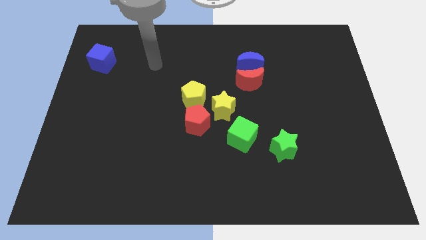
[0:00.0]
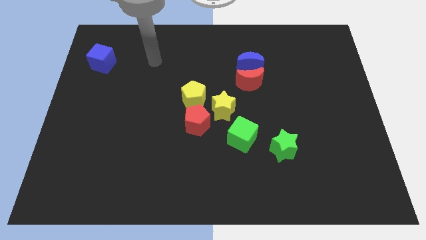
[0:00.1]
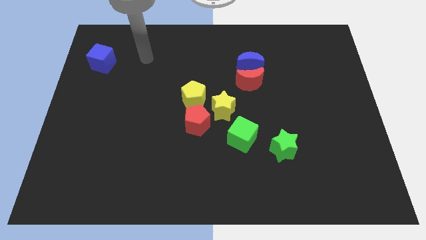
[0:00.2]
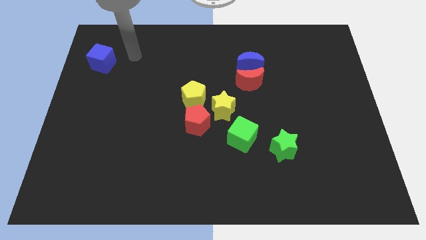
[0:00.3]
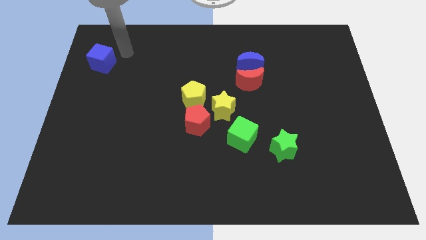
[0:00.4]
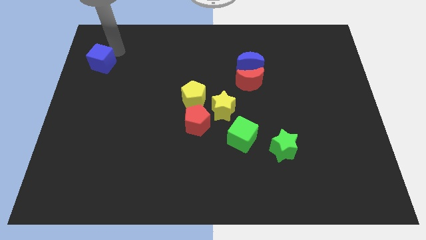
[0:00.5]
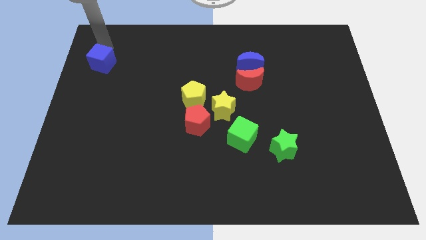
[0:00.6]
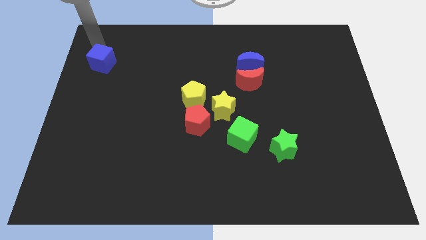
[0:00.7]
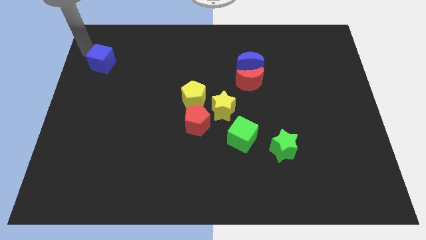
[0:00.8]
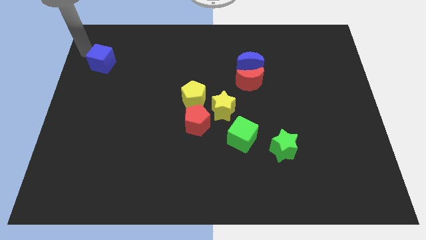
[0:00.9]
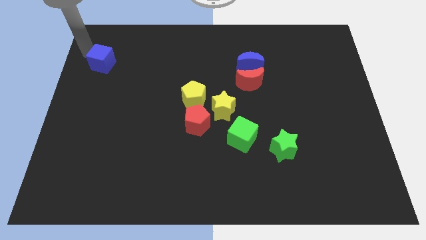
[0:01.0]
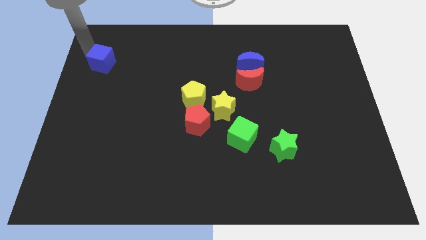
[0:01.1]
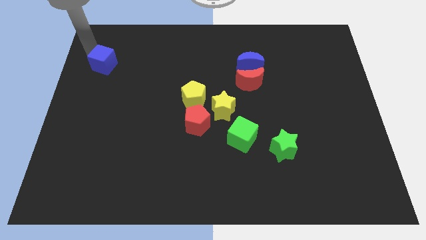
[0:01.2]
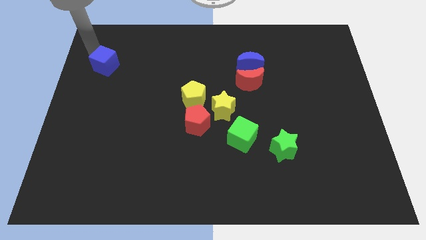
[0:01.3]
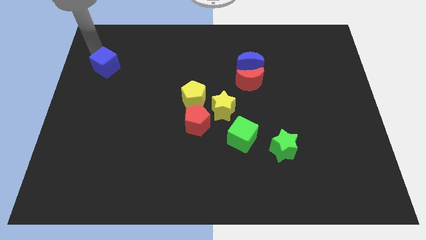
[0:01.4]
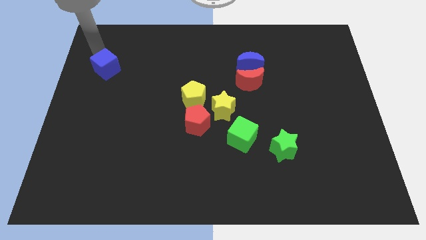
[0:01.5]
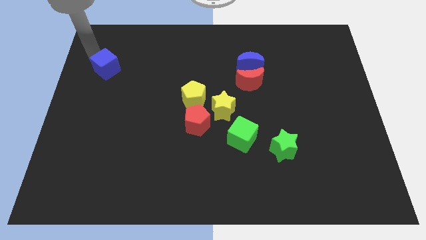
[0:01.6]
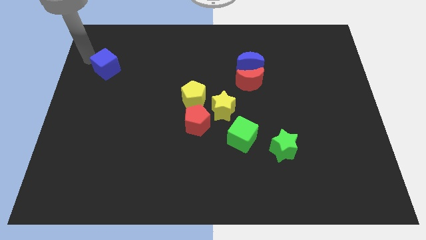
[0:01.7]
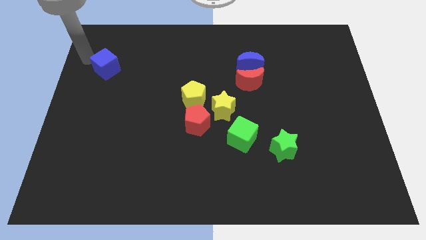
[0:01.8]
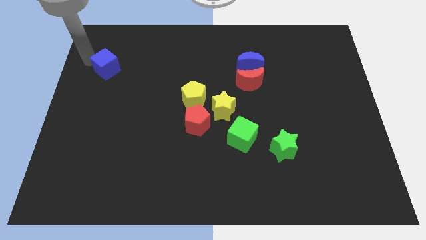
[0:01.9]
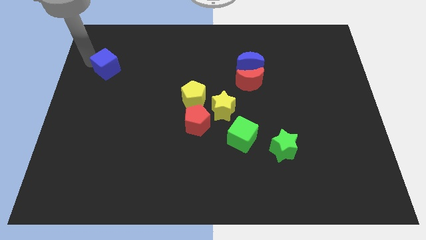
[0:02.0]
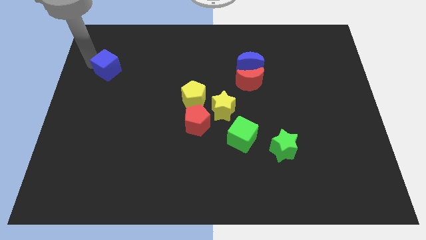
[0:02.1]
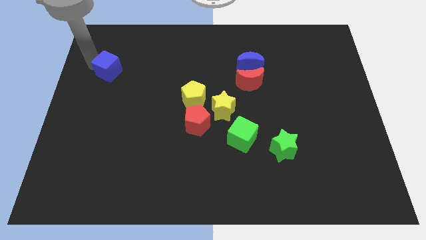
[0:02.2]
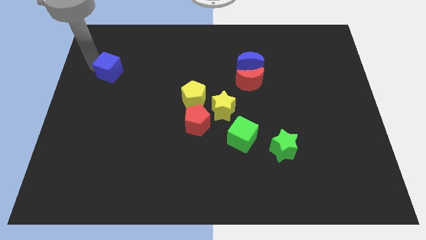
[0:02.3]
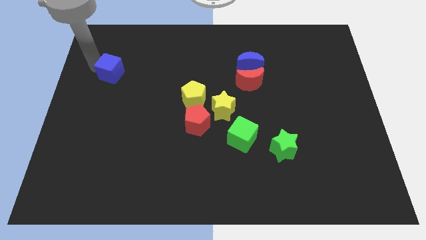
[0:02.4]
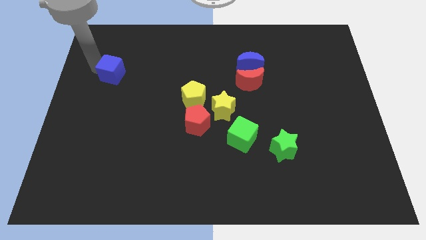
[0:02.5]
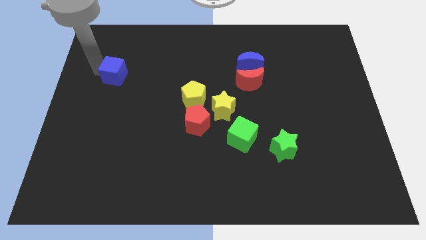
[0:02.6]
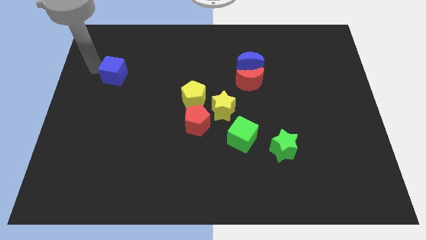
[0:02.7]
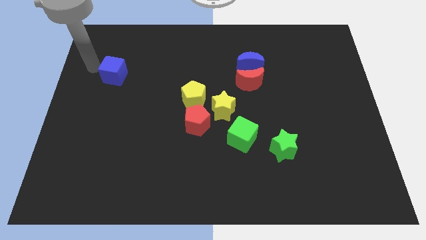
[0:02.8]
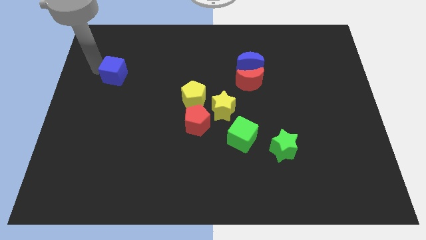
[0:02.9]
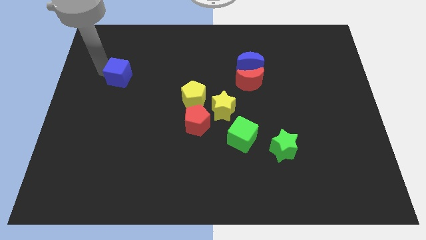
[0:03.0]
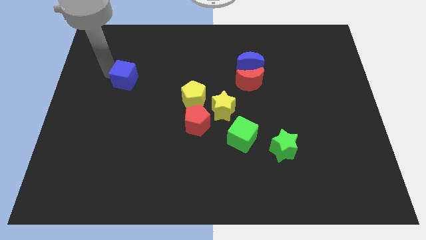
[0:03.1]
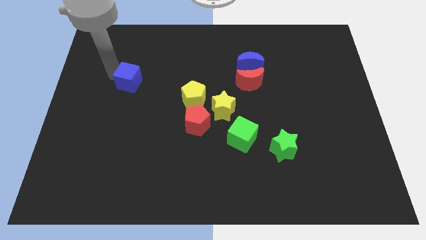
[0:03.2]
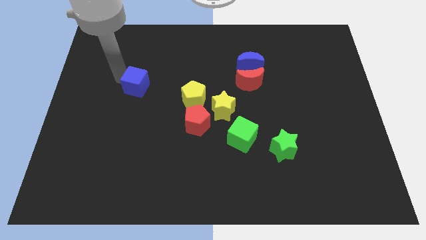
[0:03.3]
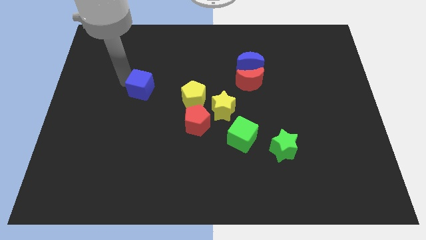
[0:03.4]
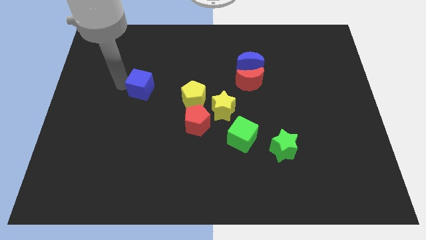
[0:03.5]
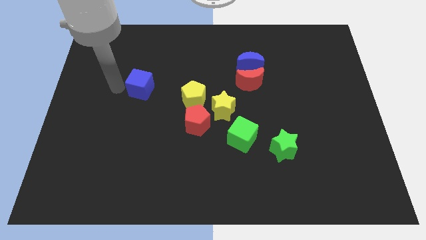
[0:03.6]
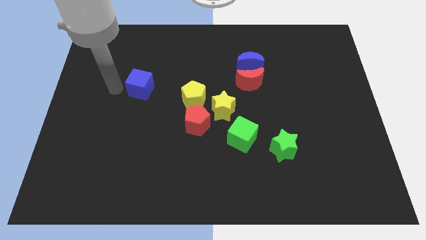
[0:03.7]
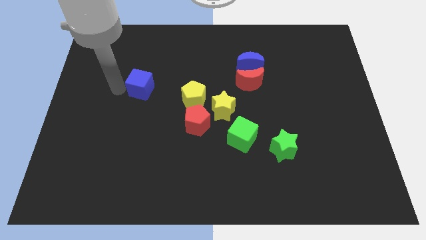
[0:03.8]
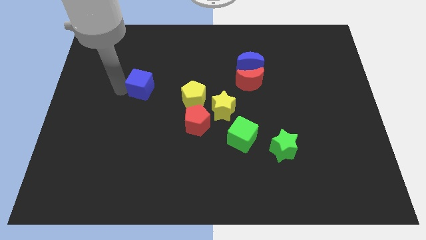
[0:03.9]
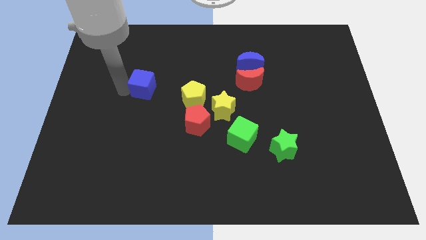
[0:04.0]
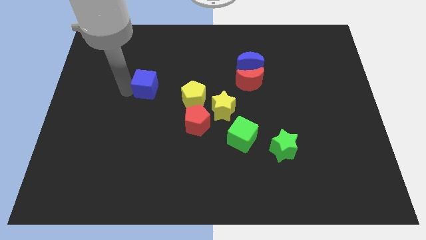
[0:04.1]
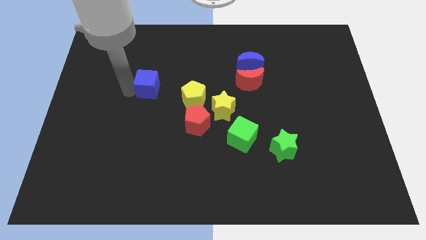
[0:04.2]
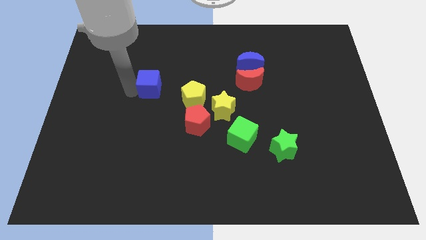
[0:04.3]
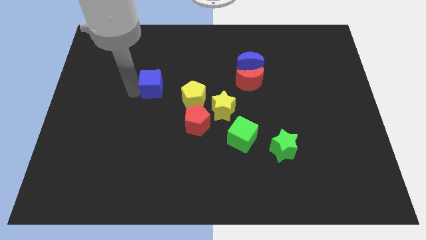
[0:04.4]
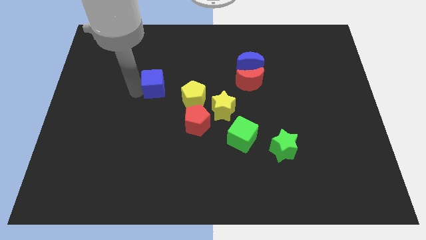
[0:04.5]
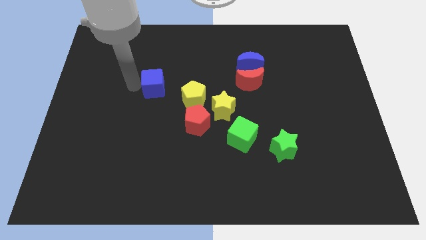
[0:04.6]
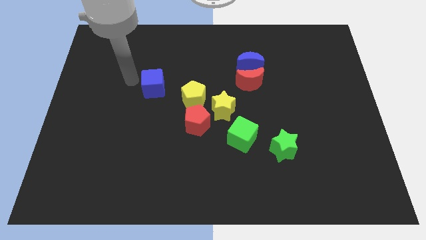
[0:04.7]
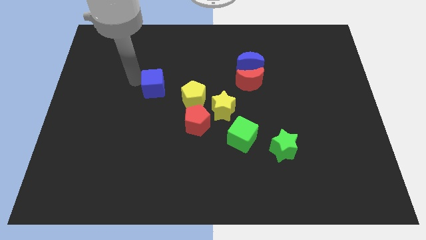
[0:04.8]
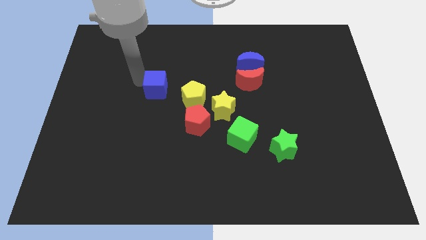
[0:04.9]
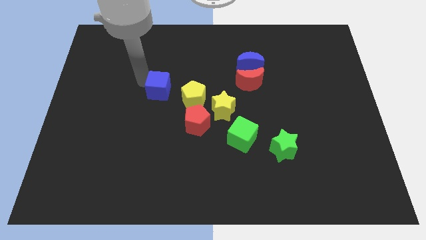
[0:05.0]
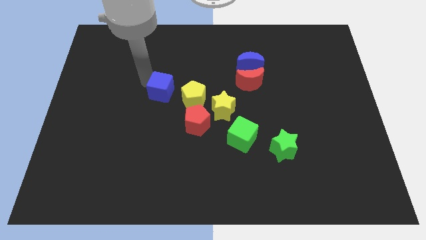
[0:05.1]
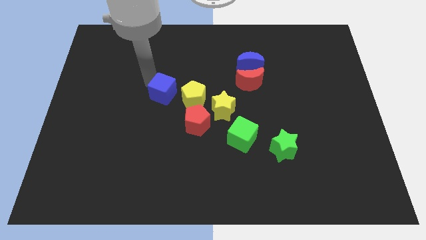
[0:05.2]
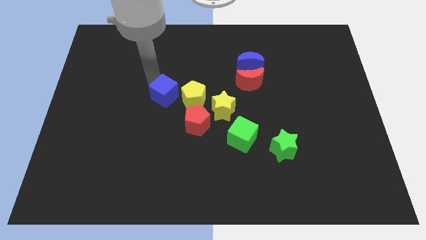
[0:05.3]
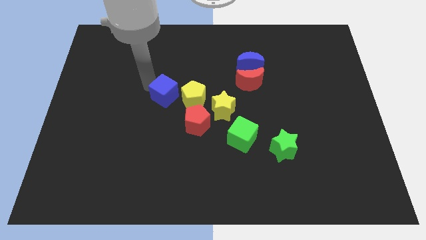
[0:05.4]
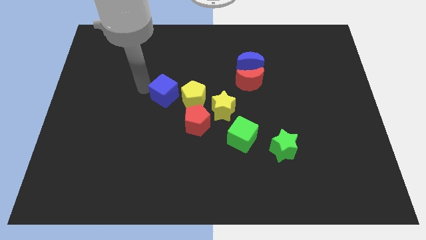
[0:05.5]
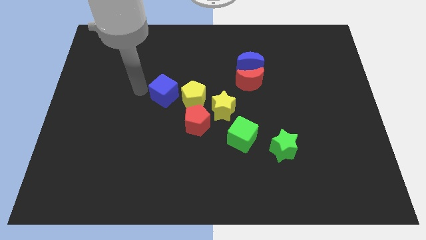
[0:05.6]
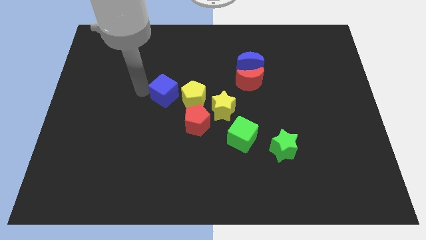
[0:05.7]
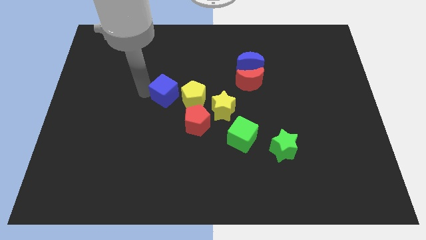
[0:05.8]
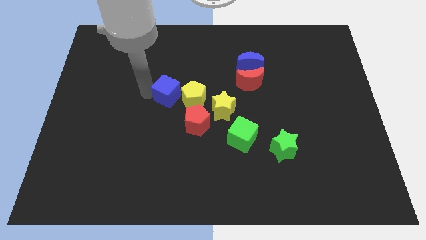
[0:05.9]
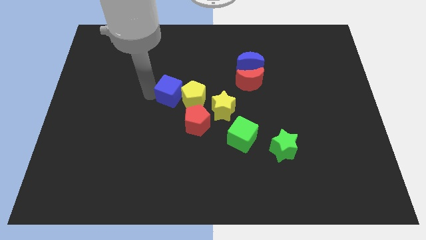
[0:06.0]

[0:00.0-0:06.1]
push the blue cube towards the yellow pentagon

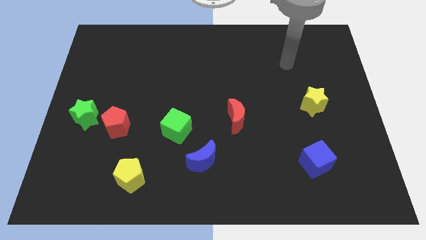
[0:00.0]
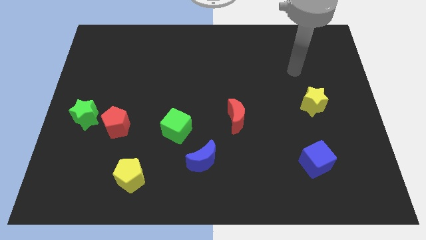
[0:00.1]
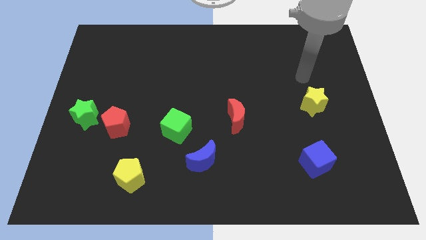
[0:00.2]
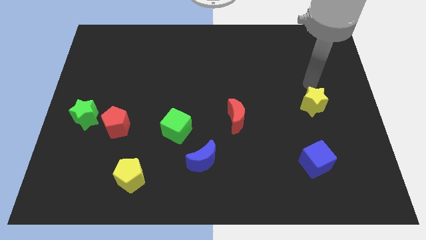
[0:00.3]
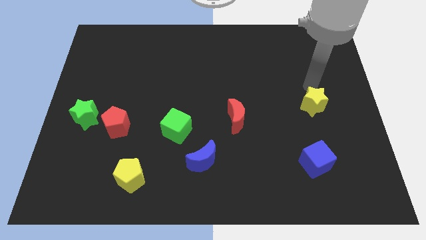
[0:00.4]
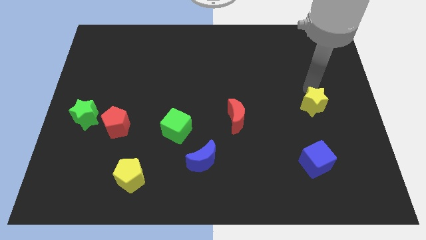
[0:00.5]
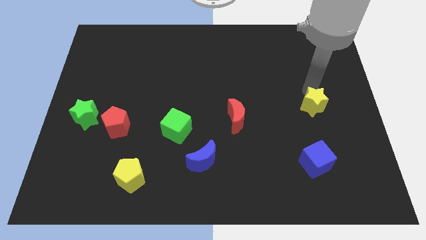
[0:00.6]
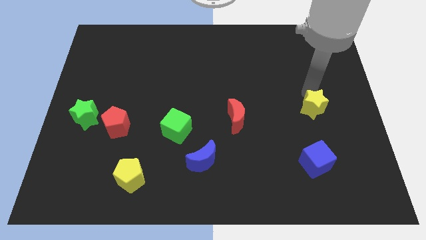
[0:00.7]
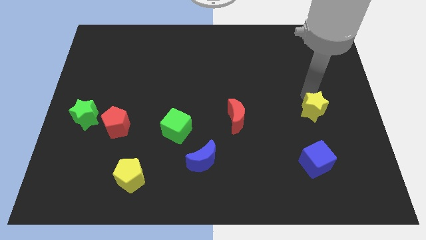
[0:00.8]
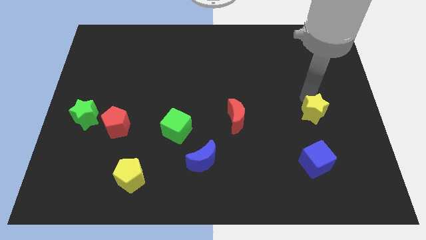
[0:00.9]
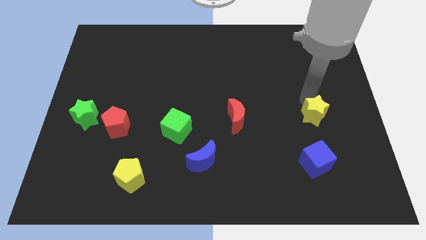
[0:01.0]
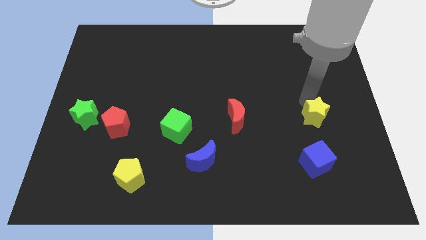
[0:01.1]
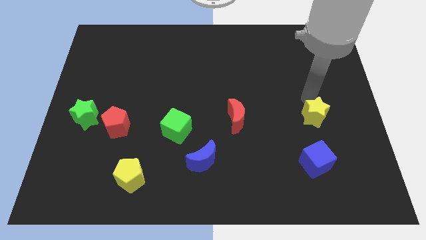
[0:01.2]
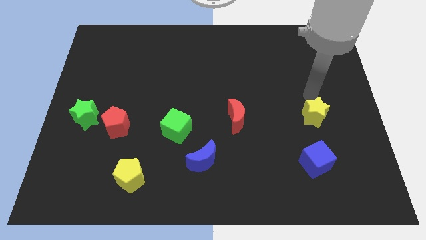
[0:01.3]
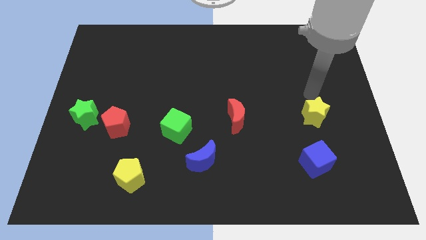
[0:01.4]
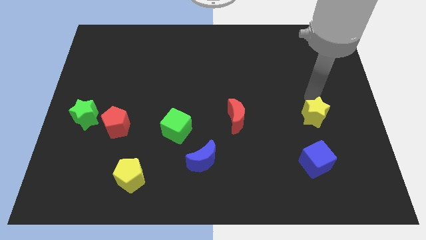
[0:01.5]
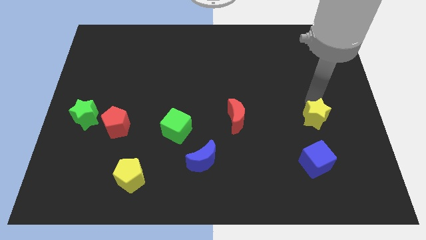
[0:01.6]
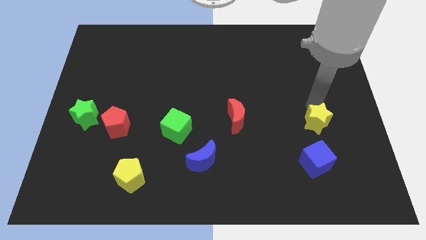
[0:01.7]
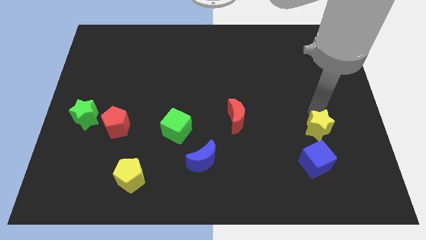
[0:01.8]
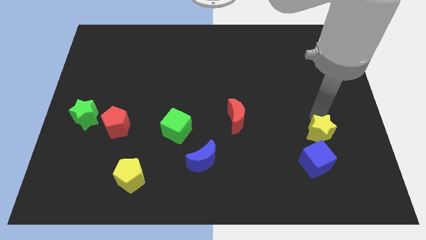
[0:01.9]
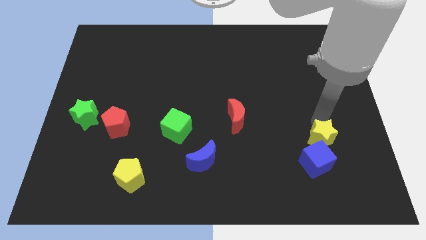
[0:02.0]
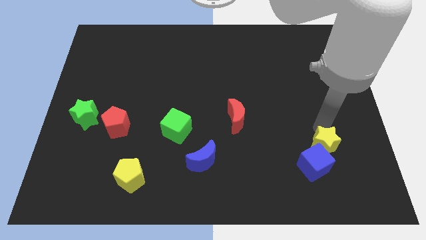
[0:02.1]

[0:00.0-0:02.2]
put the yellow star next to the blue cube
